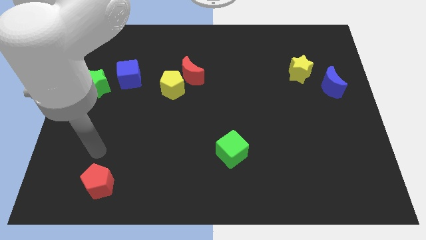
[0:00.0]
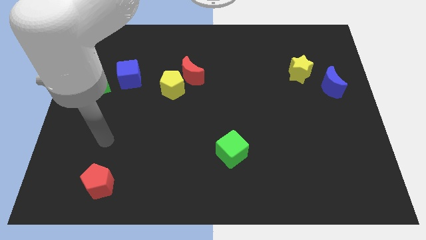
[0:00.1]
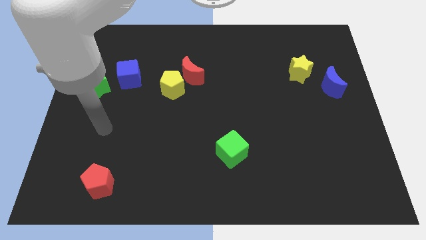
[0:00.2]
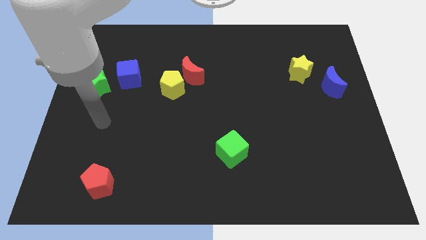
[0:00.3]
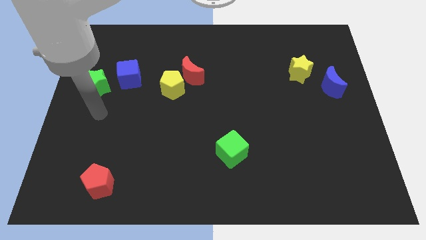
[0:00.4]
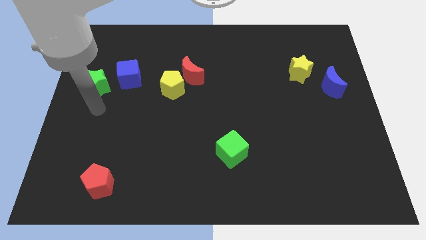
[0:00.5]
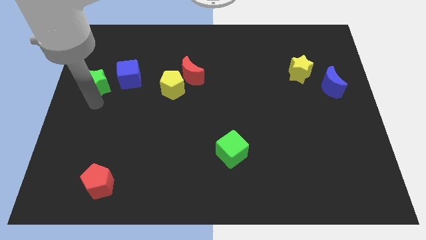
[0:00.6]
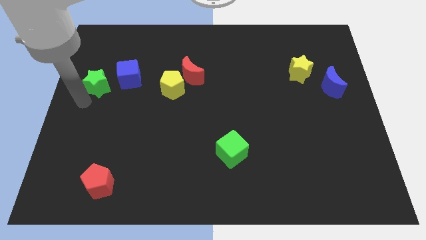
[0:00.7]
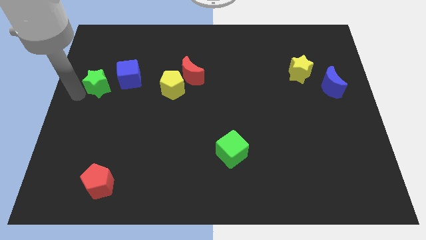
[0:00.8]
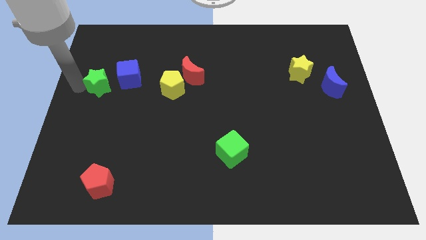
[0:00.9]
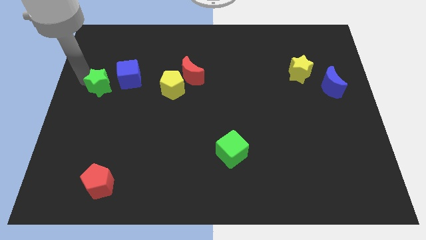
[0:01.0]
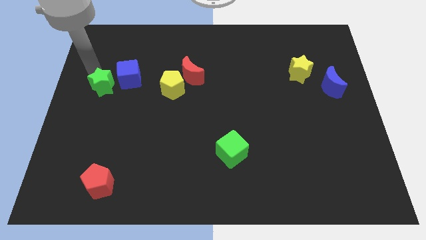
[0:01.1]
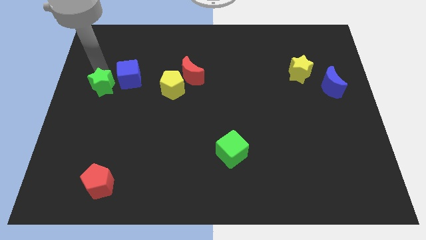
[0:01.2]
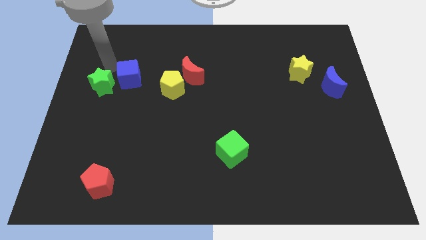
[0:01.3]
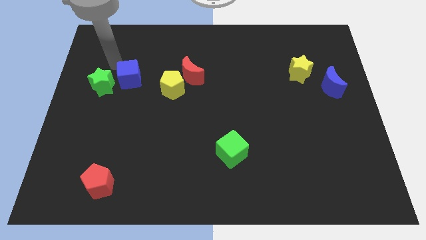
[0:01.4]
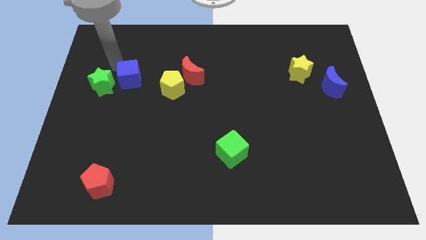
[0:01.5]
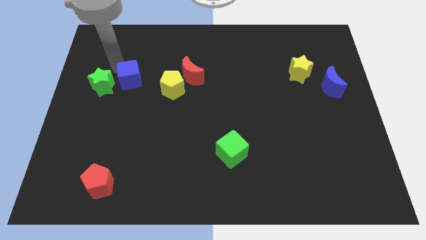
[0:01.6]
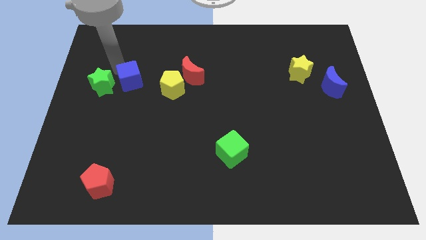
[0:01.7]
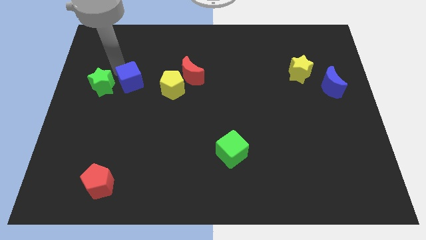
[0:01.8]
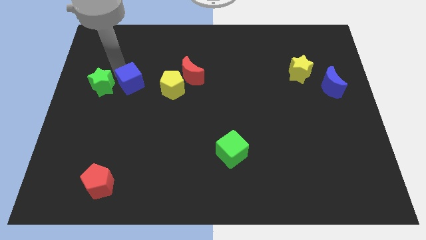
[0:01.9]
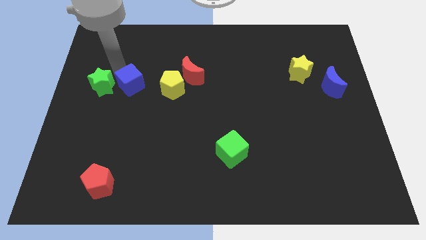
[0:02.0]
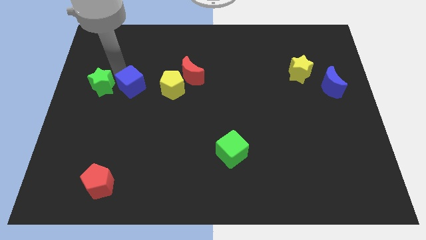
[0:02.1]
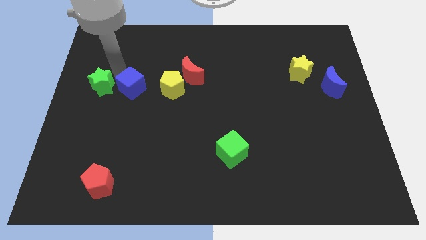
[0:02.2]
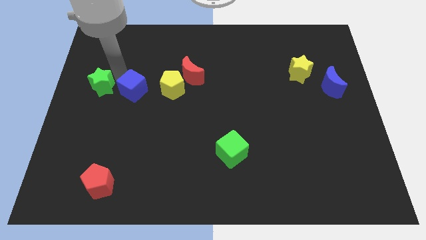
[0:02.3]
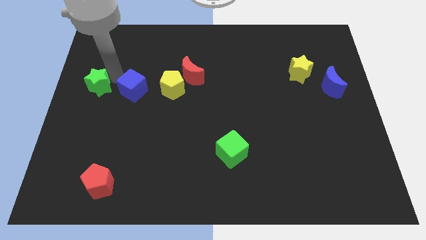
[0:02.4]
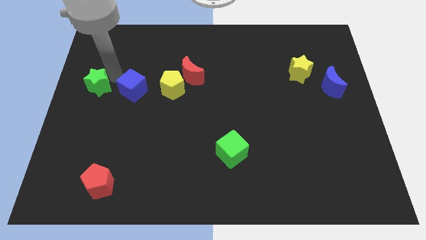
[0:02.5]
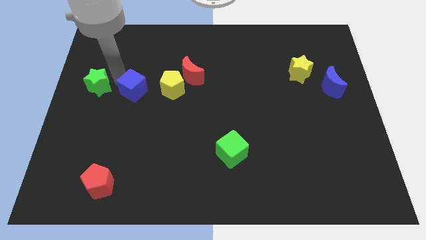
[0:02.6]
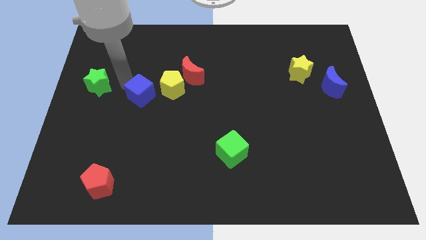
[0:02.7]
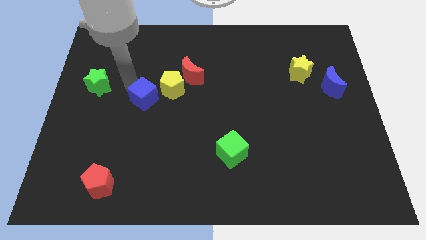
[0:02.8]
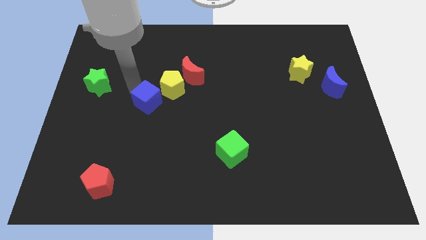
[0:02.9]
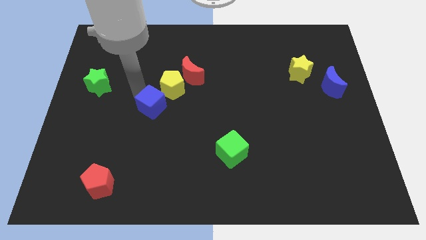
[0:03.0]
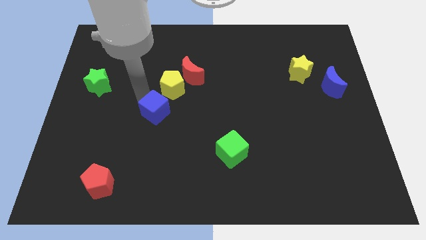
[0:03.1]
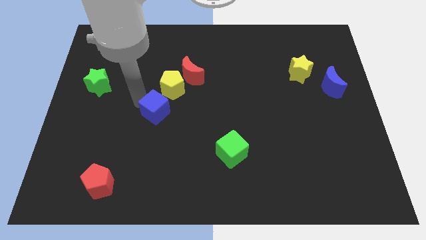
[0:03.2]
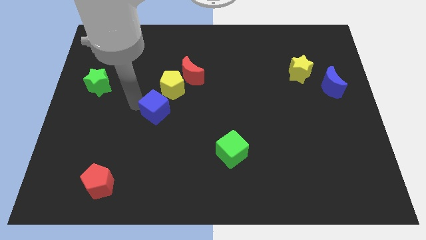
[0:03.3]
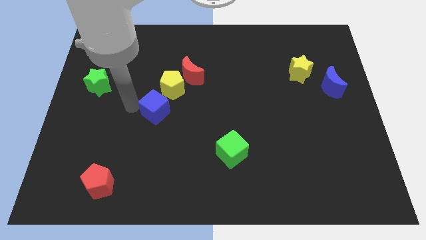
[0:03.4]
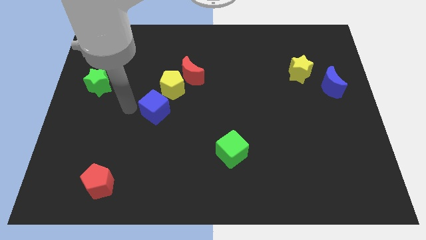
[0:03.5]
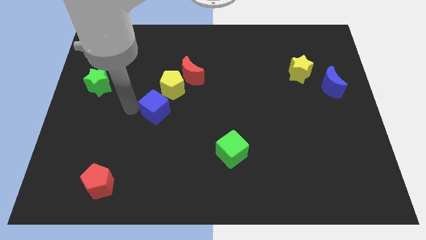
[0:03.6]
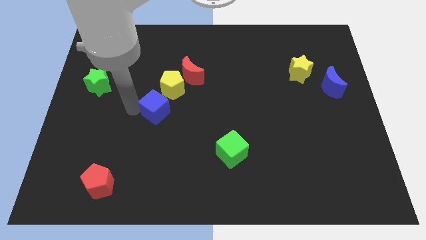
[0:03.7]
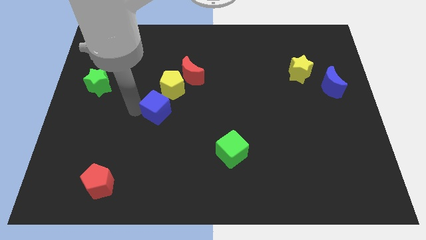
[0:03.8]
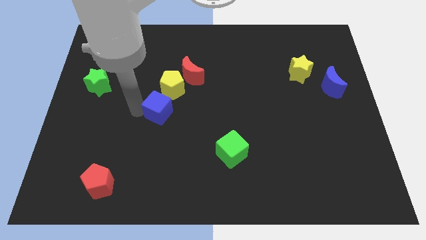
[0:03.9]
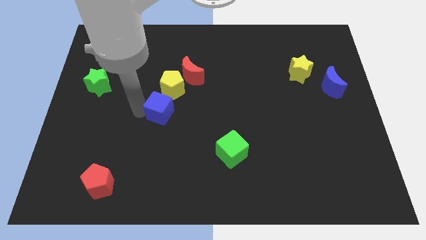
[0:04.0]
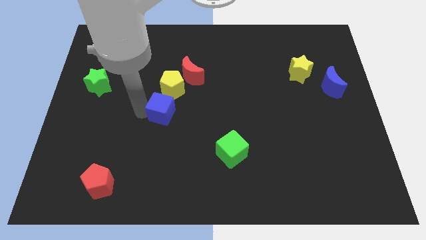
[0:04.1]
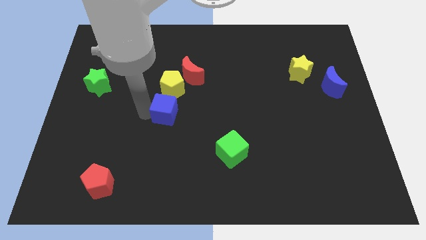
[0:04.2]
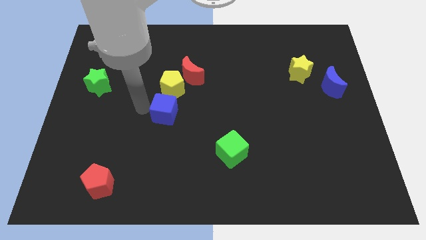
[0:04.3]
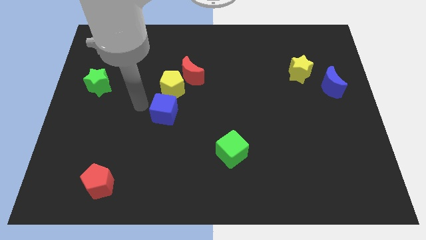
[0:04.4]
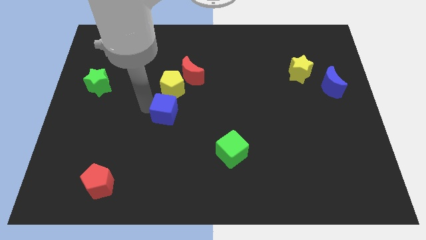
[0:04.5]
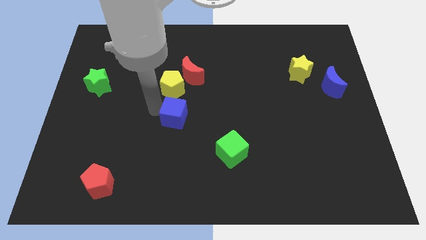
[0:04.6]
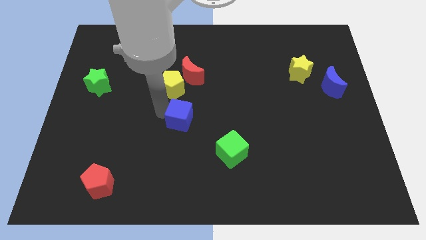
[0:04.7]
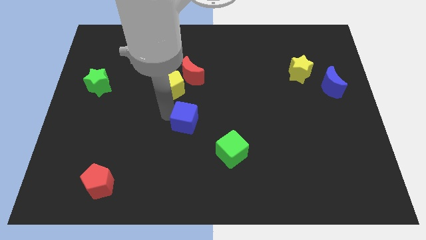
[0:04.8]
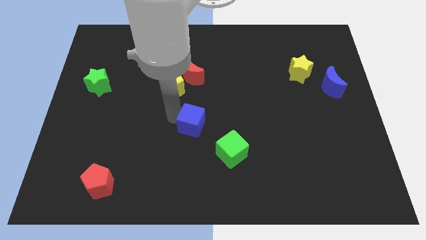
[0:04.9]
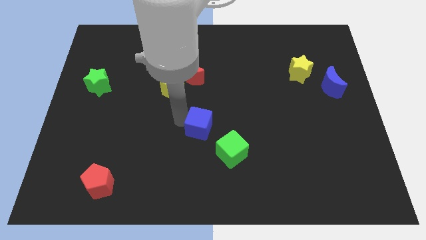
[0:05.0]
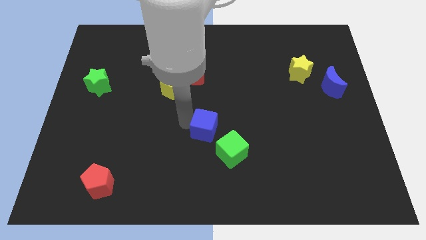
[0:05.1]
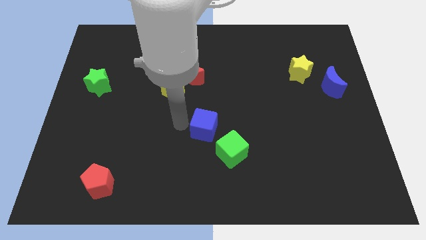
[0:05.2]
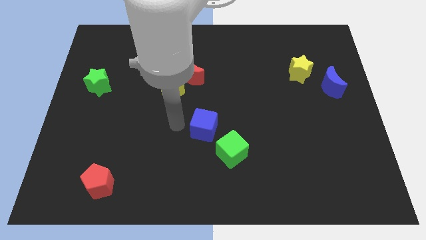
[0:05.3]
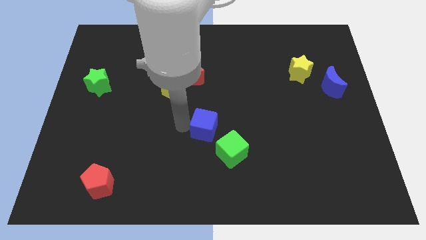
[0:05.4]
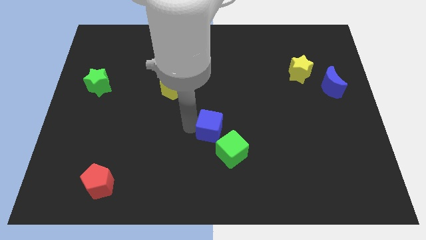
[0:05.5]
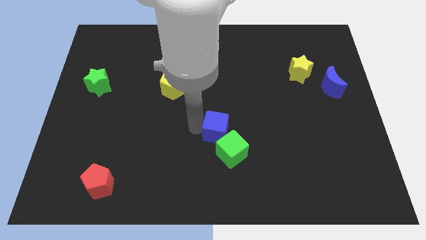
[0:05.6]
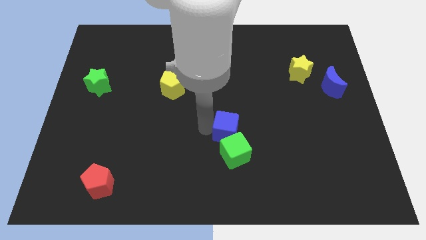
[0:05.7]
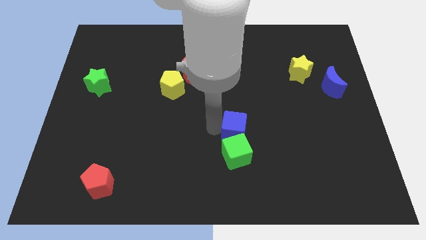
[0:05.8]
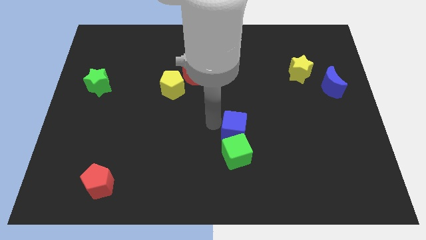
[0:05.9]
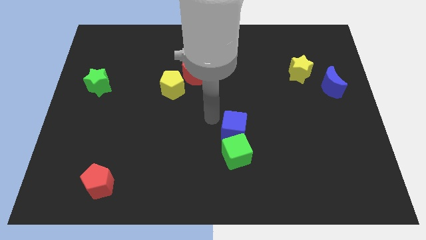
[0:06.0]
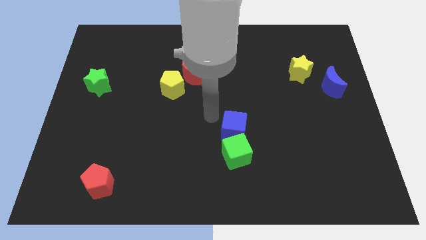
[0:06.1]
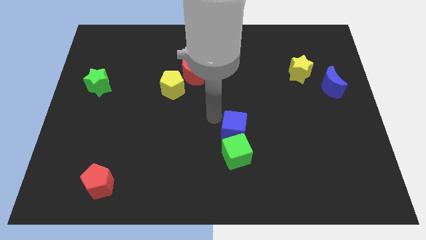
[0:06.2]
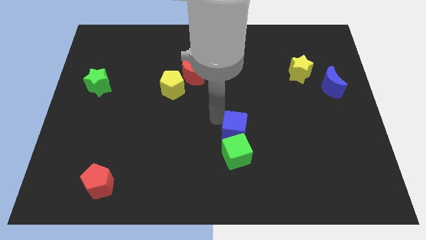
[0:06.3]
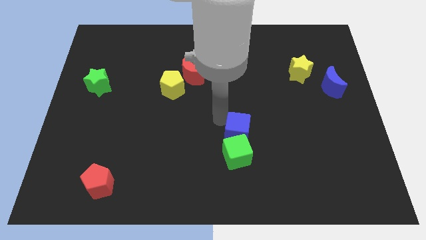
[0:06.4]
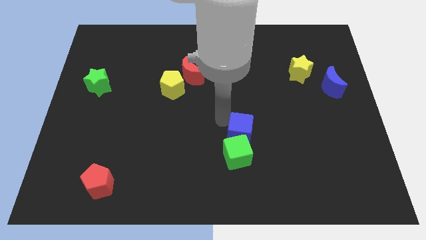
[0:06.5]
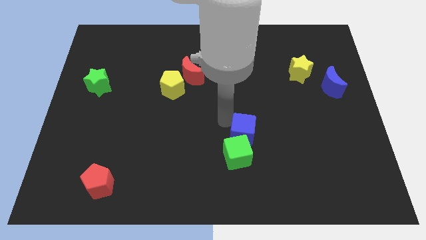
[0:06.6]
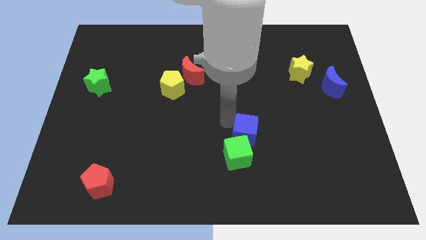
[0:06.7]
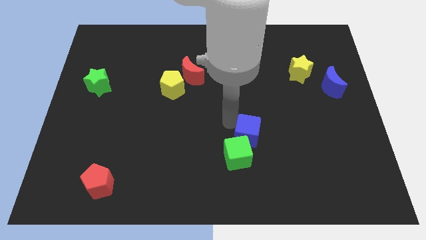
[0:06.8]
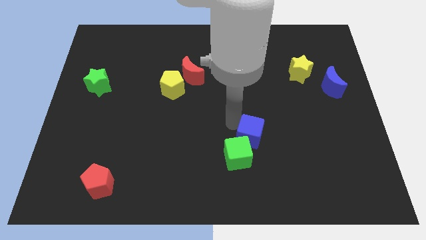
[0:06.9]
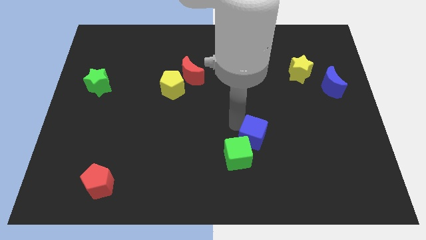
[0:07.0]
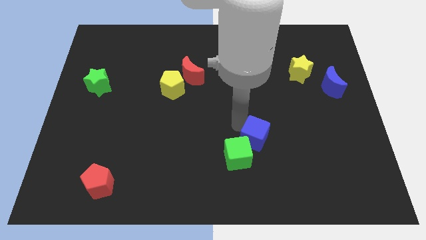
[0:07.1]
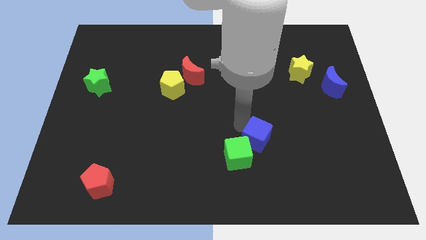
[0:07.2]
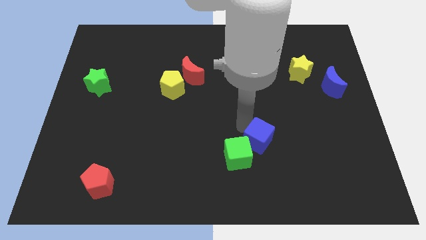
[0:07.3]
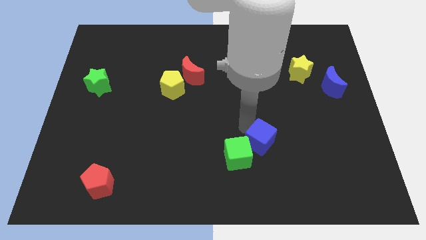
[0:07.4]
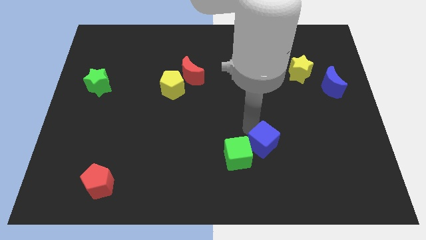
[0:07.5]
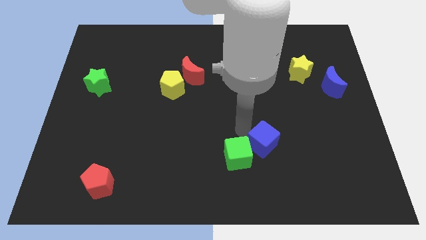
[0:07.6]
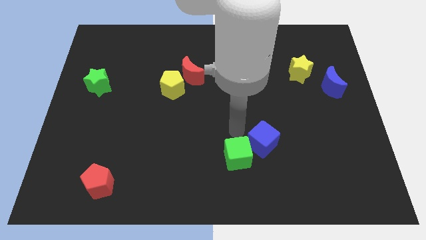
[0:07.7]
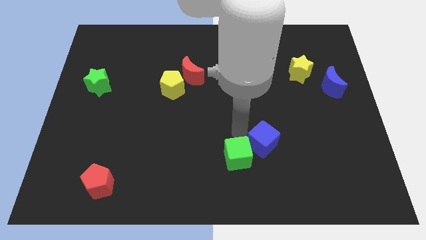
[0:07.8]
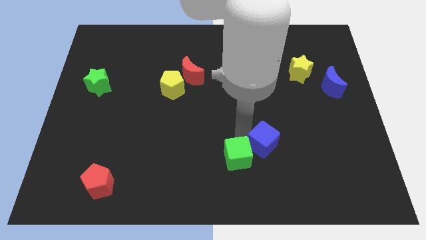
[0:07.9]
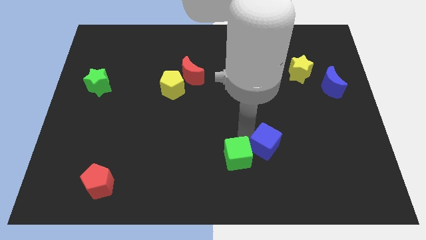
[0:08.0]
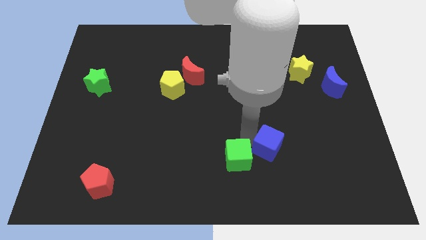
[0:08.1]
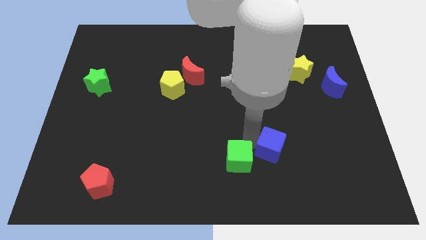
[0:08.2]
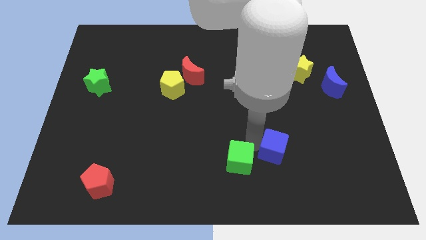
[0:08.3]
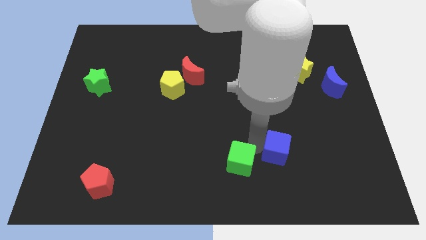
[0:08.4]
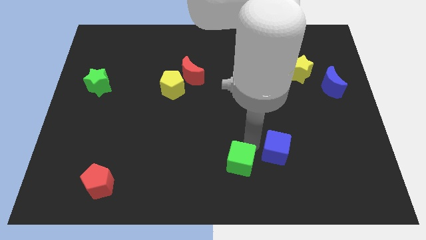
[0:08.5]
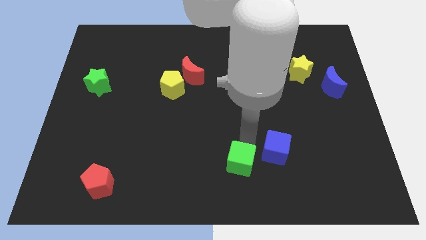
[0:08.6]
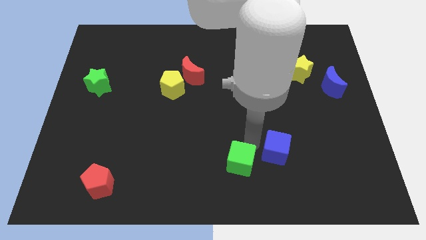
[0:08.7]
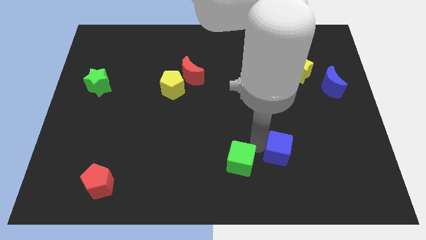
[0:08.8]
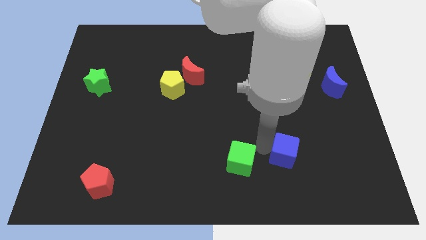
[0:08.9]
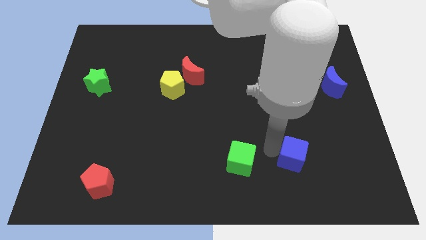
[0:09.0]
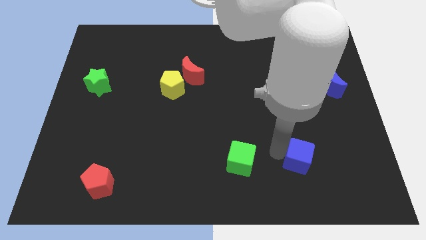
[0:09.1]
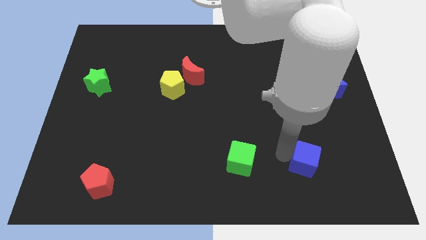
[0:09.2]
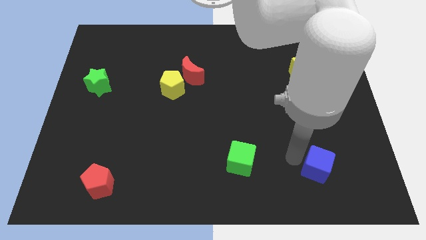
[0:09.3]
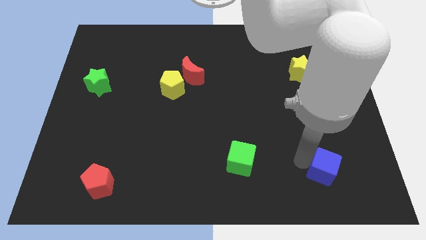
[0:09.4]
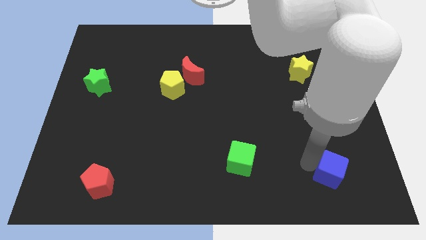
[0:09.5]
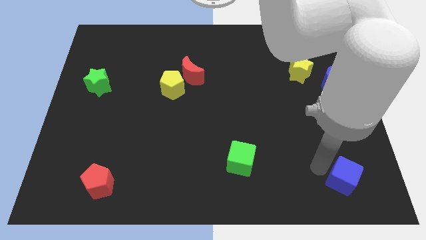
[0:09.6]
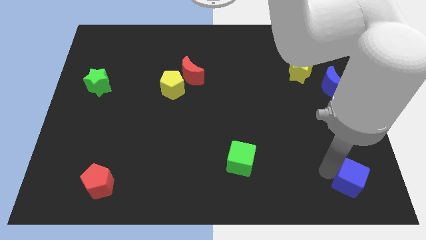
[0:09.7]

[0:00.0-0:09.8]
move the blue cube to the bottom right
